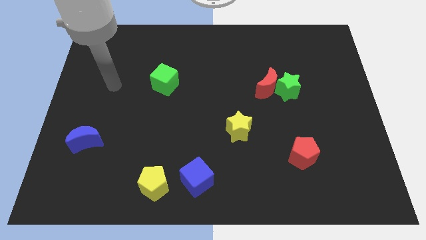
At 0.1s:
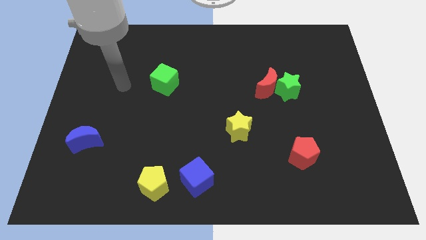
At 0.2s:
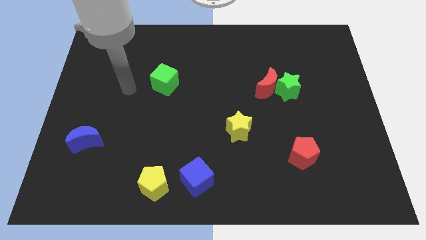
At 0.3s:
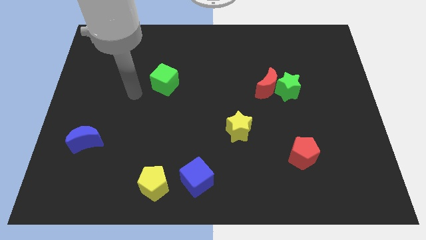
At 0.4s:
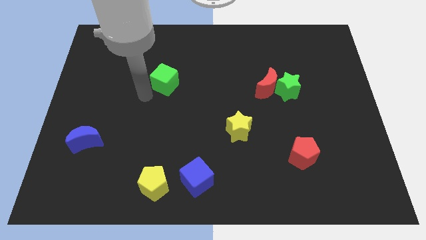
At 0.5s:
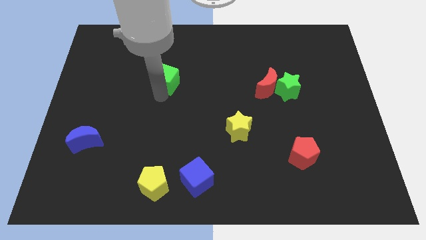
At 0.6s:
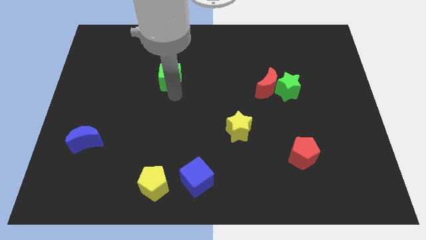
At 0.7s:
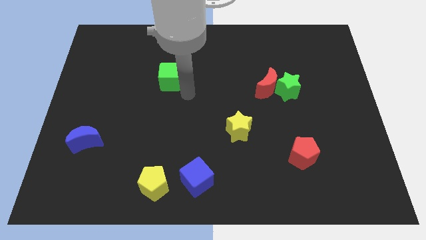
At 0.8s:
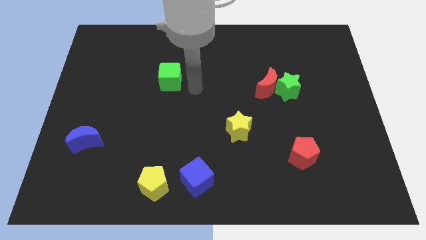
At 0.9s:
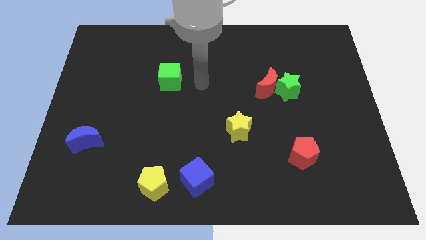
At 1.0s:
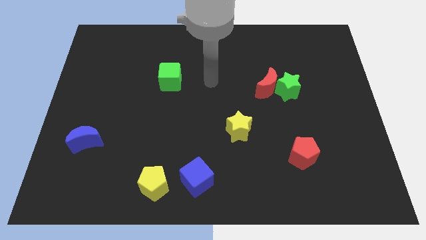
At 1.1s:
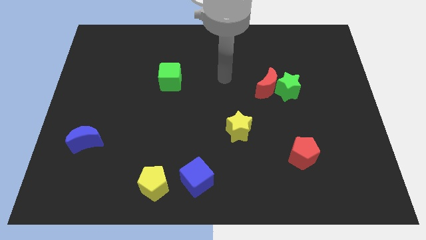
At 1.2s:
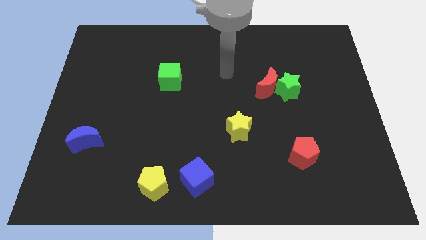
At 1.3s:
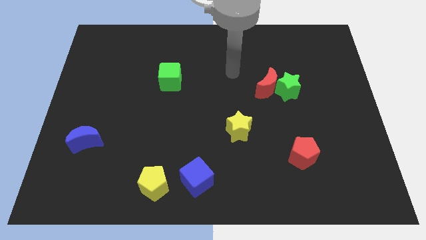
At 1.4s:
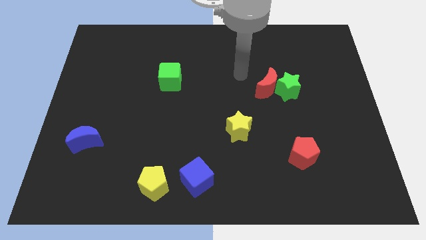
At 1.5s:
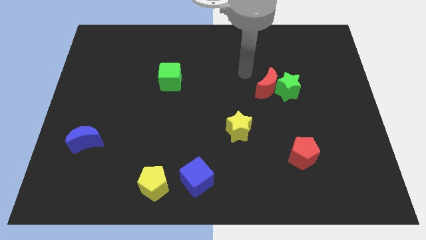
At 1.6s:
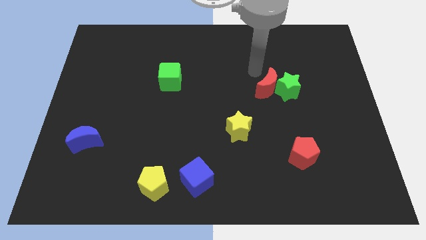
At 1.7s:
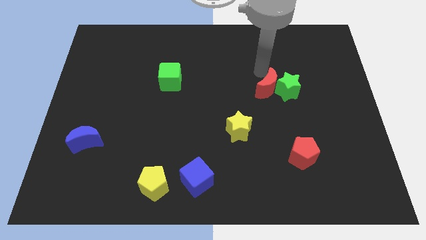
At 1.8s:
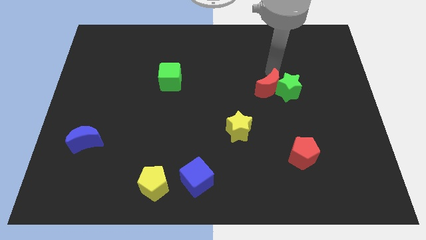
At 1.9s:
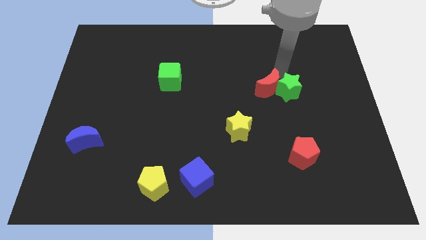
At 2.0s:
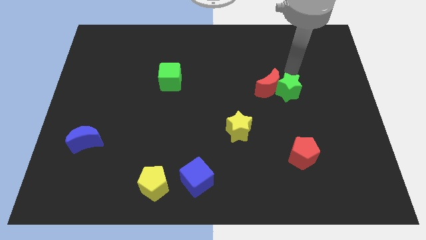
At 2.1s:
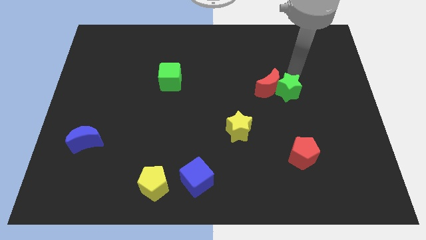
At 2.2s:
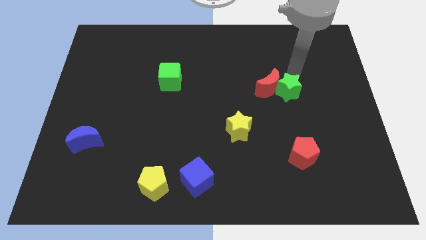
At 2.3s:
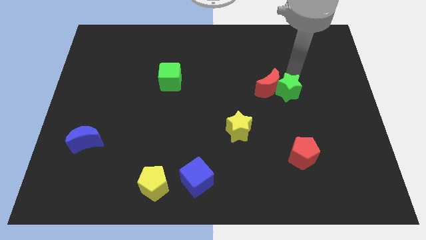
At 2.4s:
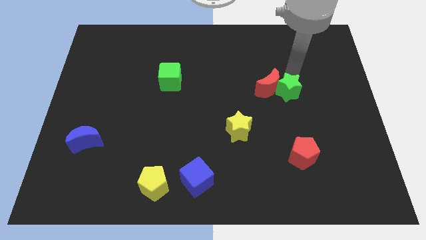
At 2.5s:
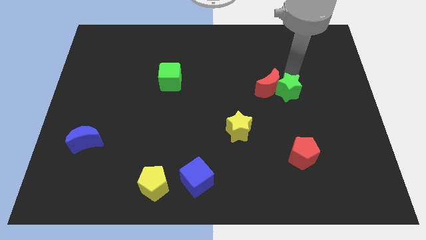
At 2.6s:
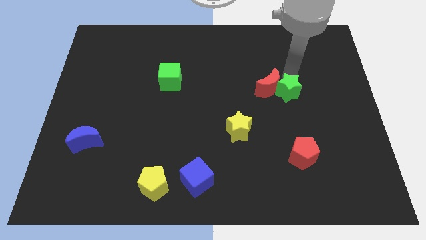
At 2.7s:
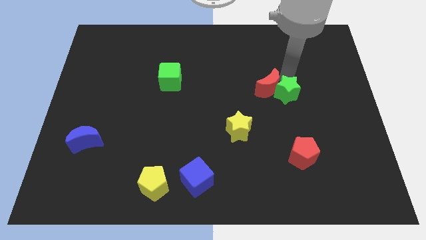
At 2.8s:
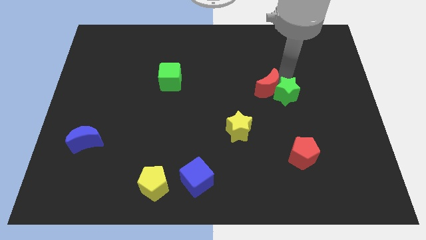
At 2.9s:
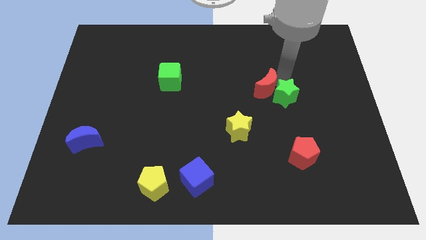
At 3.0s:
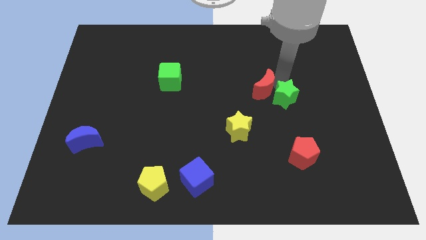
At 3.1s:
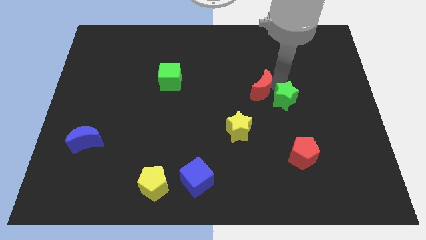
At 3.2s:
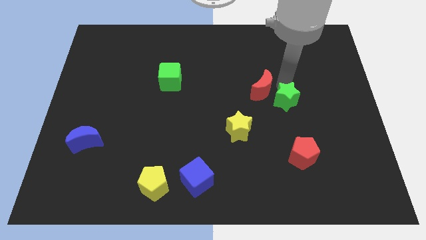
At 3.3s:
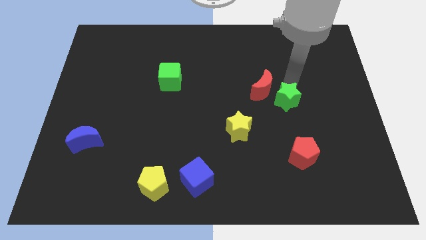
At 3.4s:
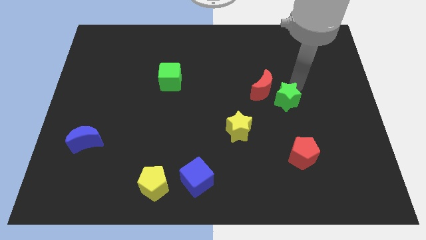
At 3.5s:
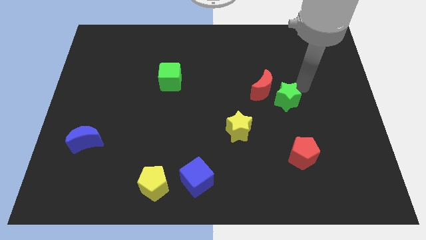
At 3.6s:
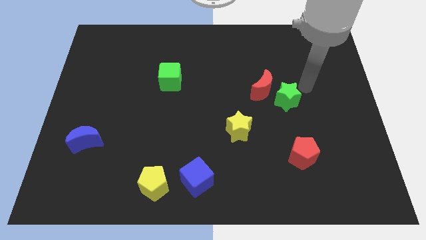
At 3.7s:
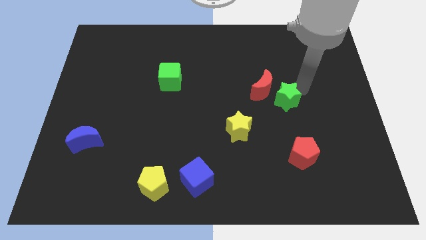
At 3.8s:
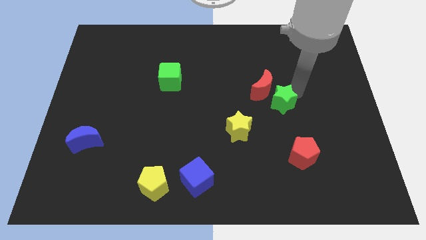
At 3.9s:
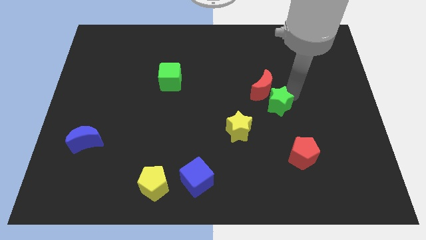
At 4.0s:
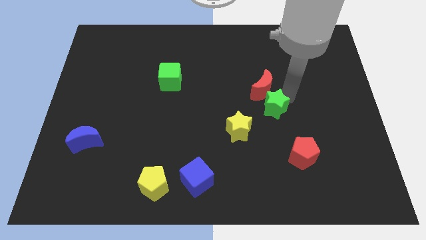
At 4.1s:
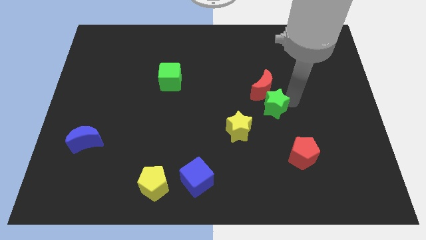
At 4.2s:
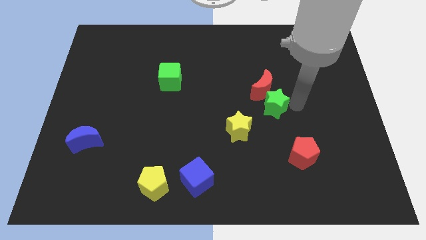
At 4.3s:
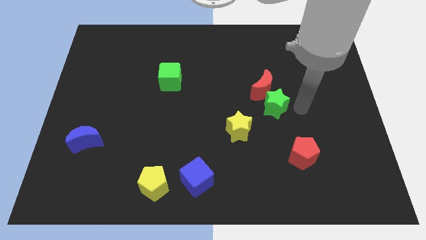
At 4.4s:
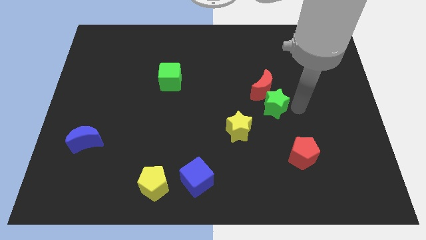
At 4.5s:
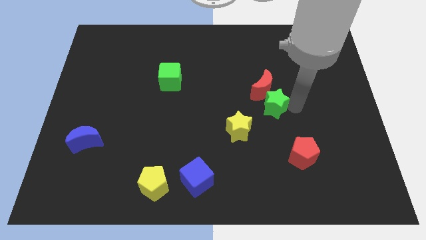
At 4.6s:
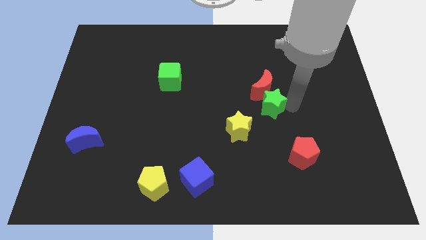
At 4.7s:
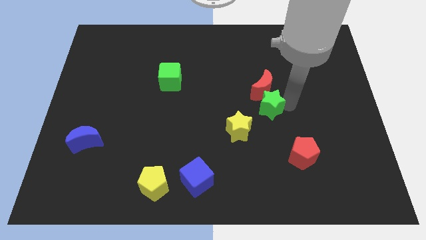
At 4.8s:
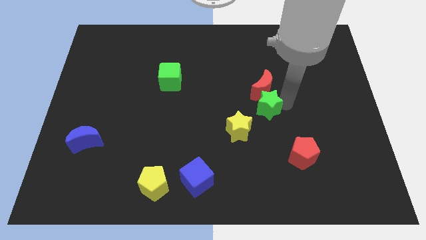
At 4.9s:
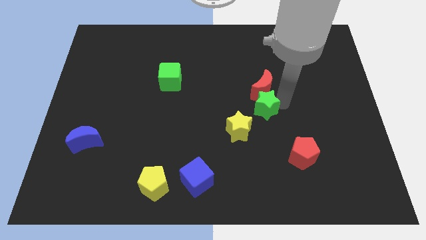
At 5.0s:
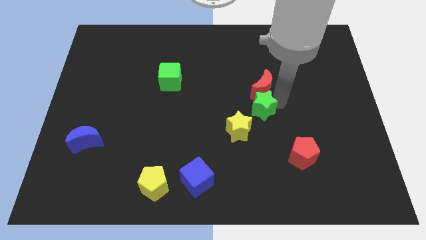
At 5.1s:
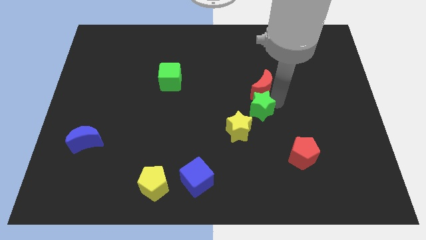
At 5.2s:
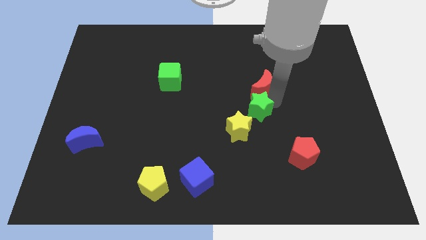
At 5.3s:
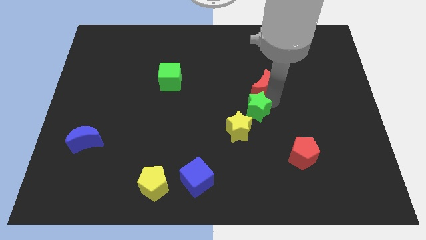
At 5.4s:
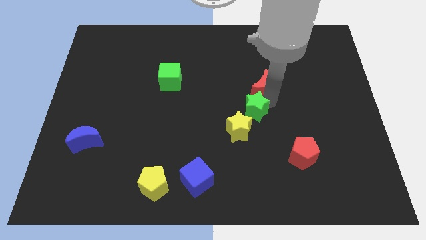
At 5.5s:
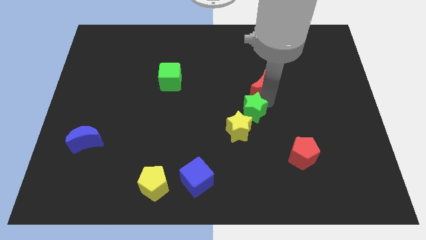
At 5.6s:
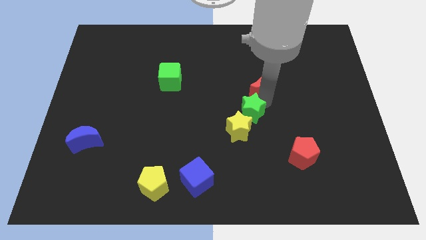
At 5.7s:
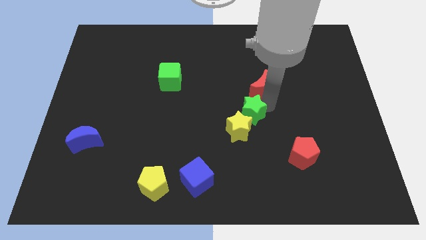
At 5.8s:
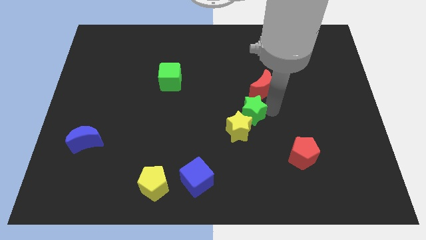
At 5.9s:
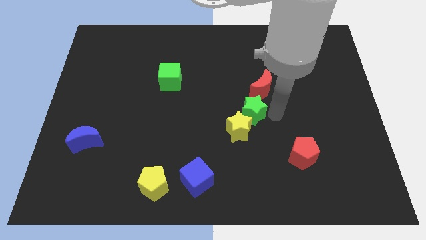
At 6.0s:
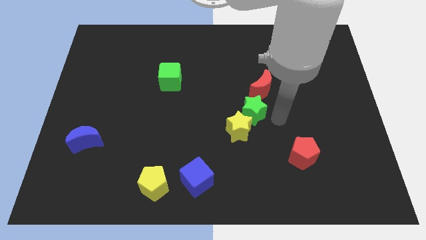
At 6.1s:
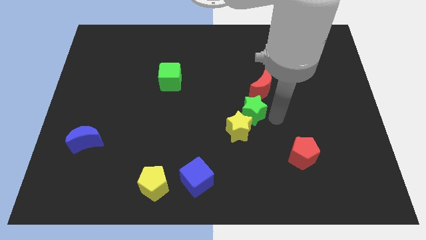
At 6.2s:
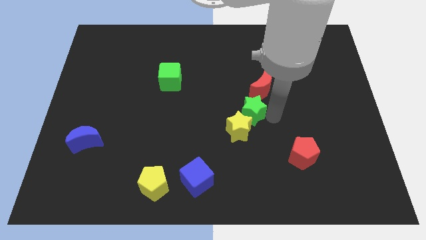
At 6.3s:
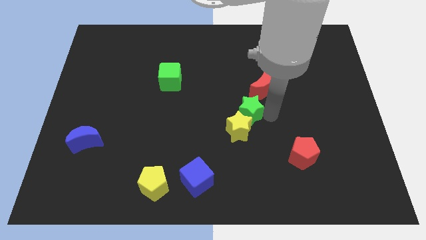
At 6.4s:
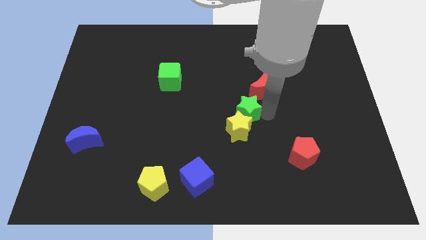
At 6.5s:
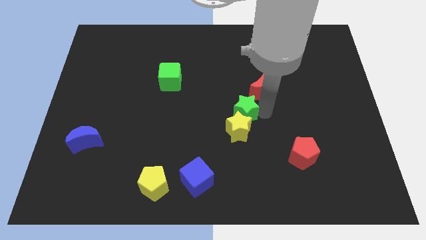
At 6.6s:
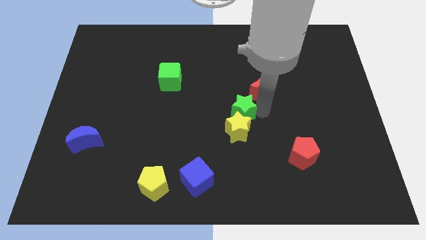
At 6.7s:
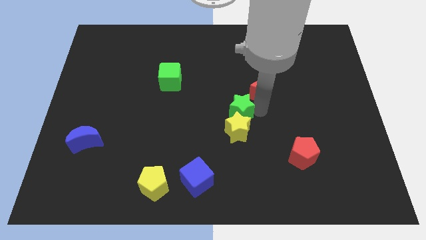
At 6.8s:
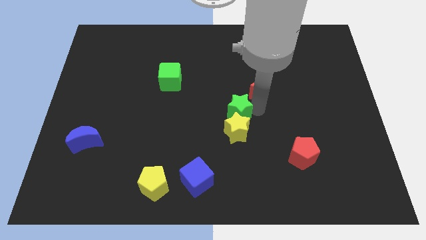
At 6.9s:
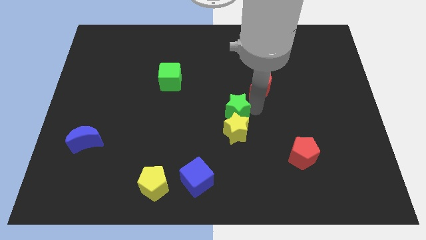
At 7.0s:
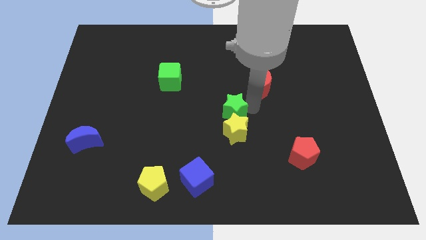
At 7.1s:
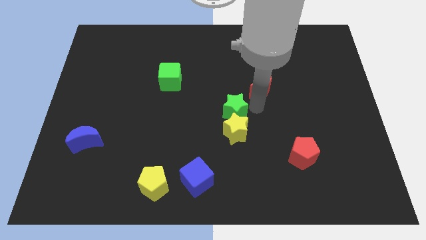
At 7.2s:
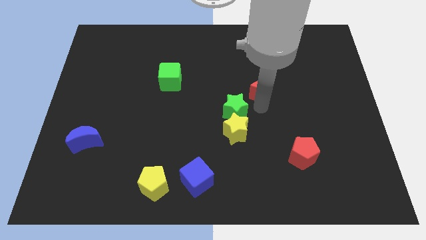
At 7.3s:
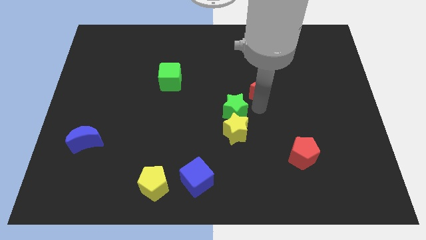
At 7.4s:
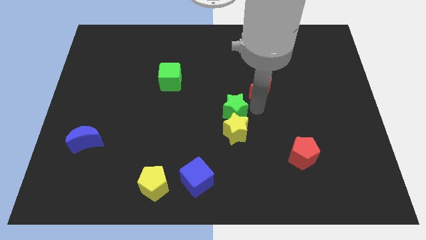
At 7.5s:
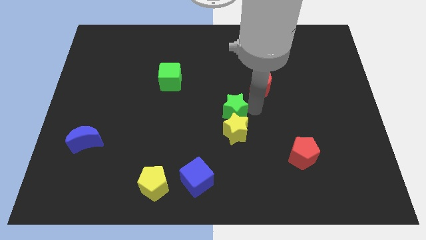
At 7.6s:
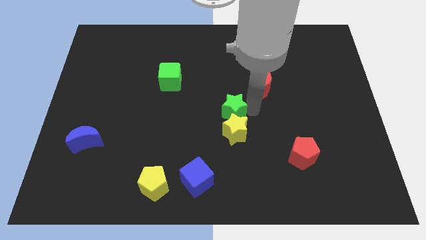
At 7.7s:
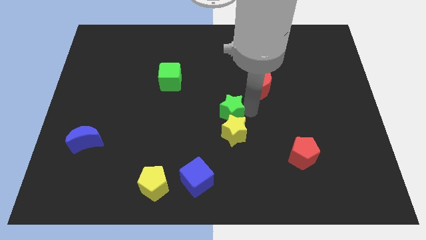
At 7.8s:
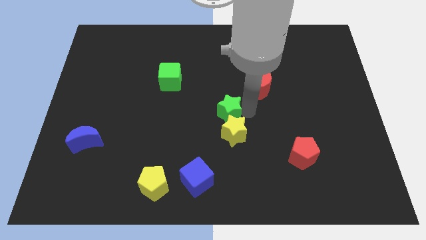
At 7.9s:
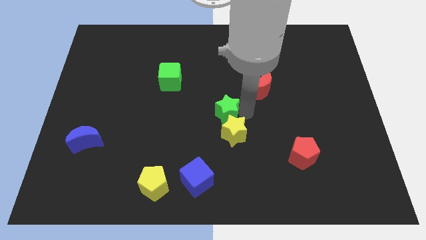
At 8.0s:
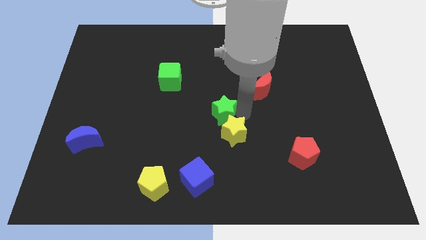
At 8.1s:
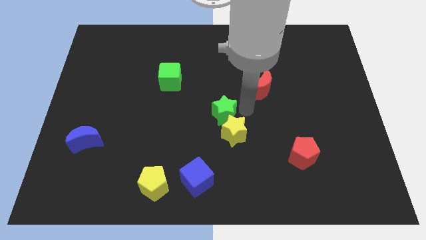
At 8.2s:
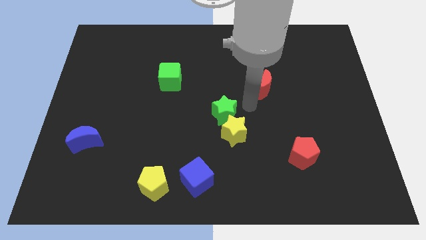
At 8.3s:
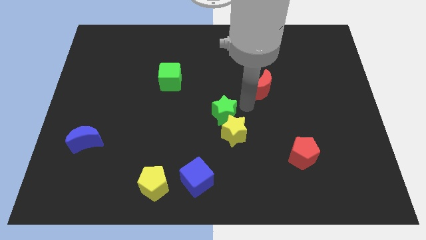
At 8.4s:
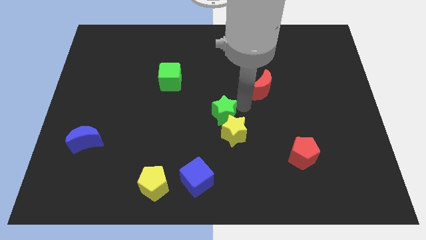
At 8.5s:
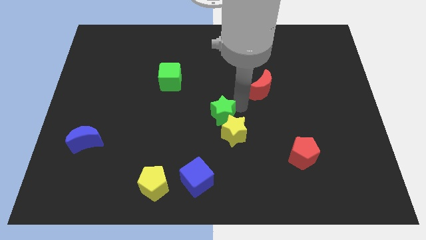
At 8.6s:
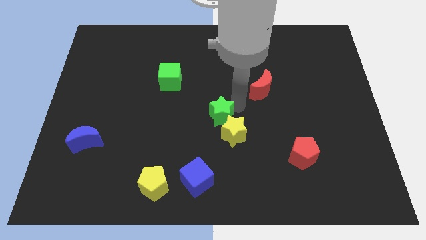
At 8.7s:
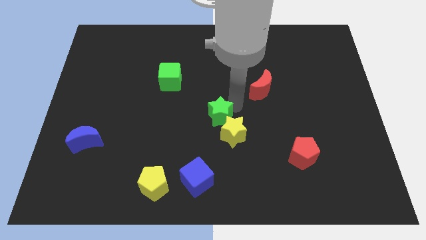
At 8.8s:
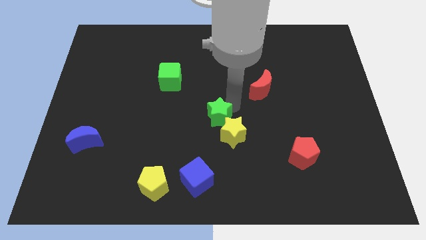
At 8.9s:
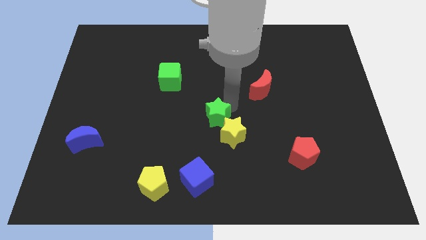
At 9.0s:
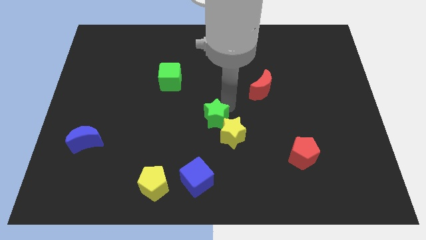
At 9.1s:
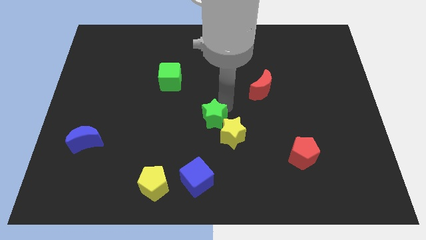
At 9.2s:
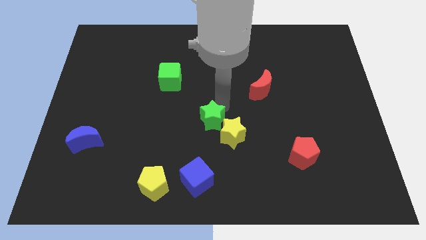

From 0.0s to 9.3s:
move the green star just left of the yellow star
